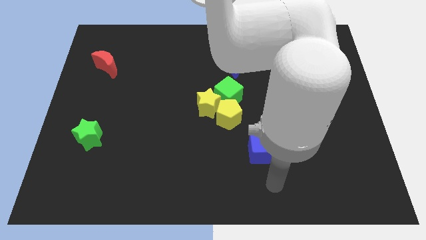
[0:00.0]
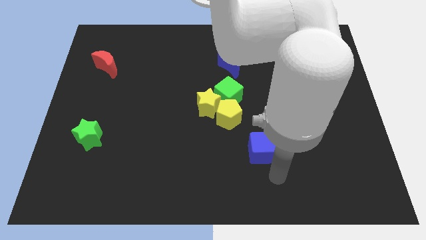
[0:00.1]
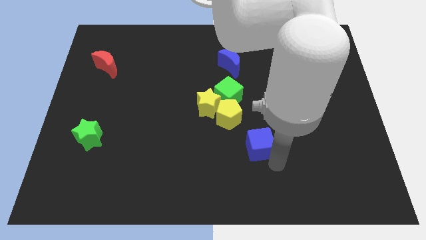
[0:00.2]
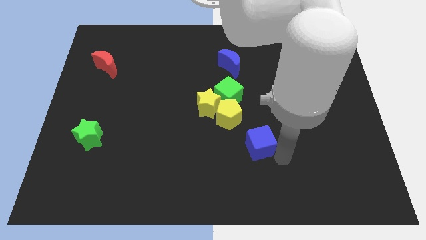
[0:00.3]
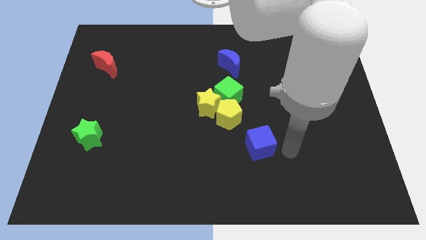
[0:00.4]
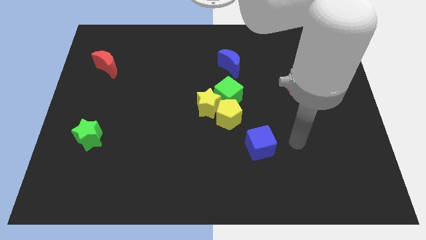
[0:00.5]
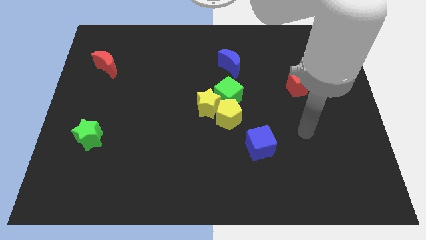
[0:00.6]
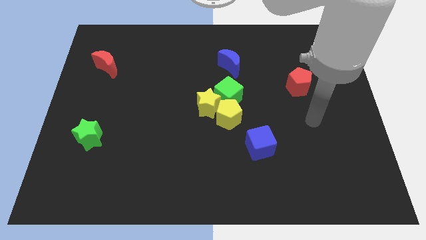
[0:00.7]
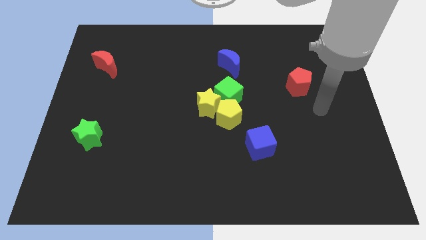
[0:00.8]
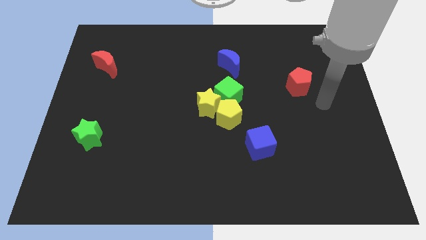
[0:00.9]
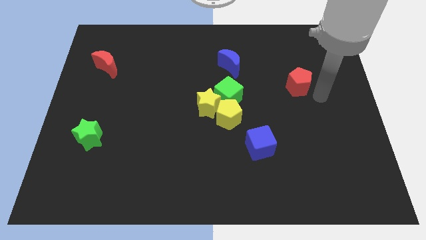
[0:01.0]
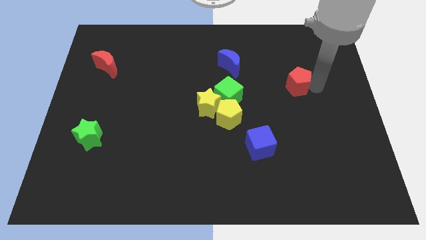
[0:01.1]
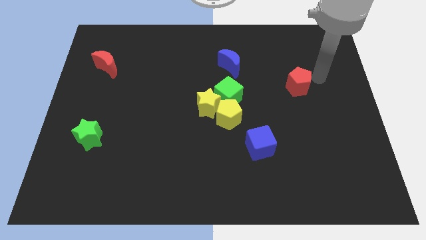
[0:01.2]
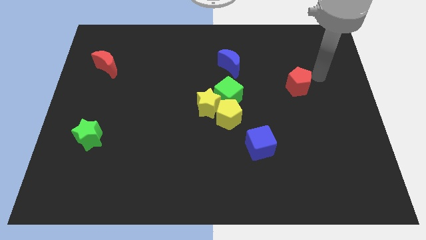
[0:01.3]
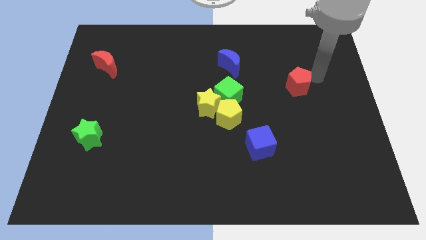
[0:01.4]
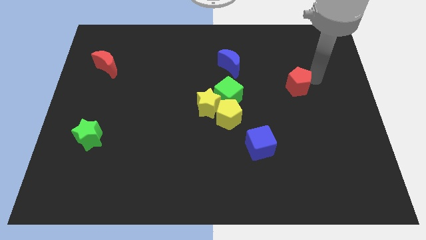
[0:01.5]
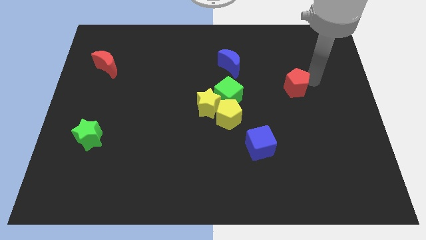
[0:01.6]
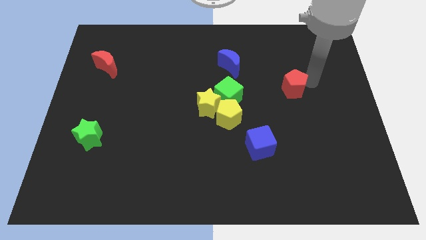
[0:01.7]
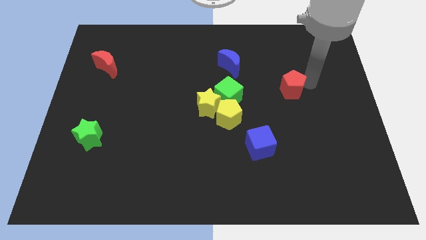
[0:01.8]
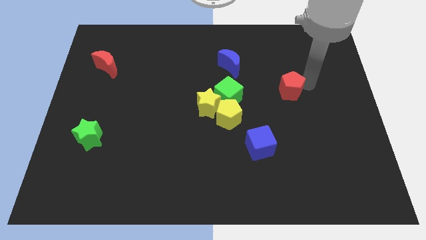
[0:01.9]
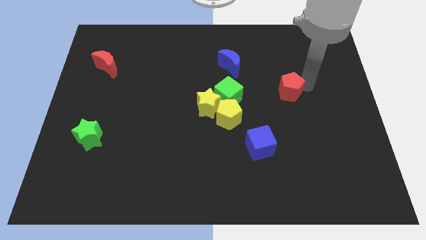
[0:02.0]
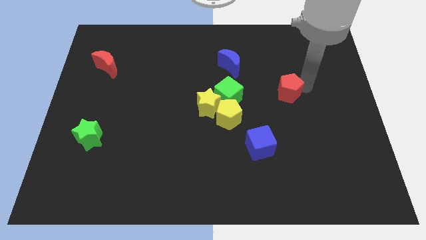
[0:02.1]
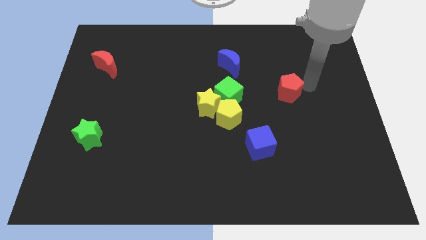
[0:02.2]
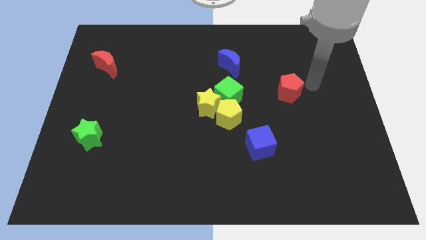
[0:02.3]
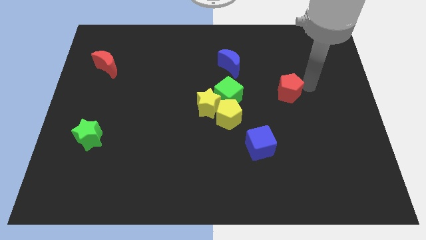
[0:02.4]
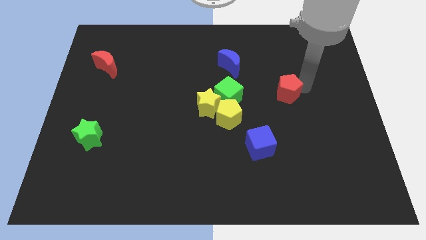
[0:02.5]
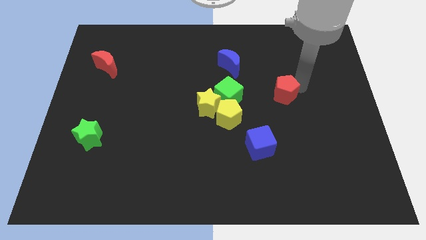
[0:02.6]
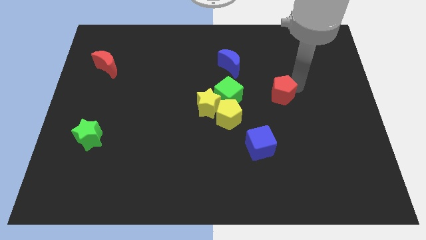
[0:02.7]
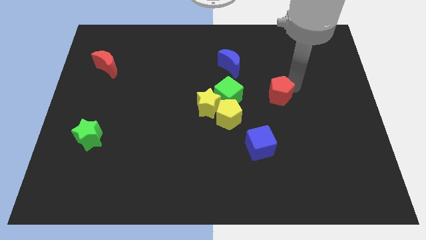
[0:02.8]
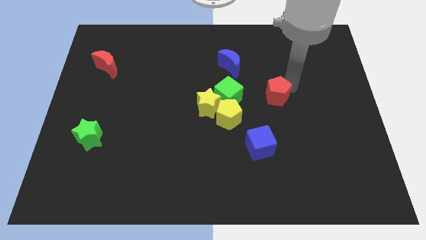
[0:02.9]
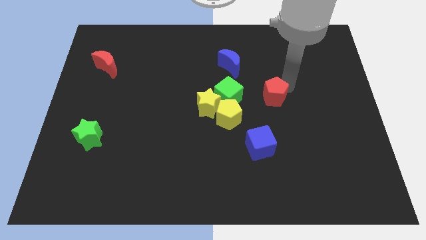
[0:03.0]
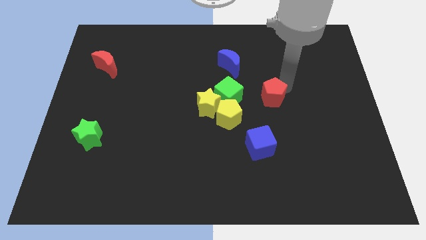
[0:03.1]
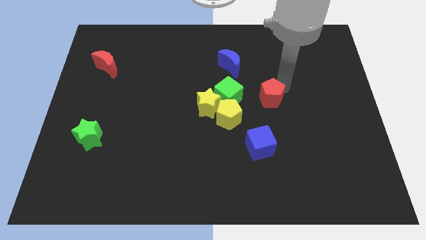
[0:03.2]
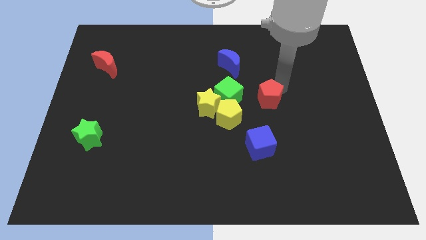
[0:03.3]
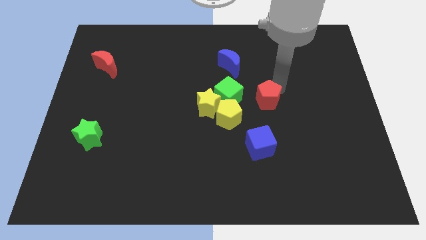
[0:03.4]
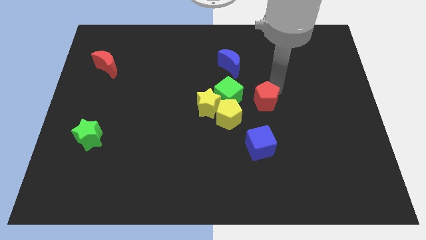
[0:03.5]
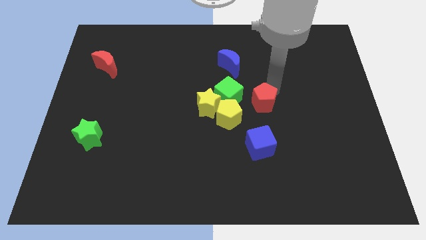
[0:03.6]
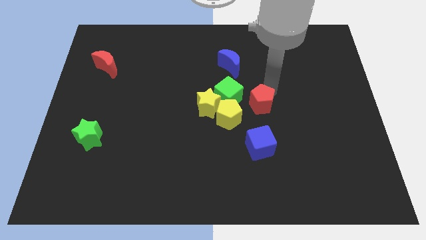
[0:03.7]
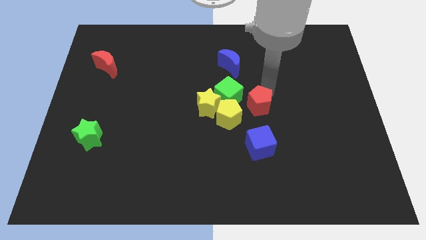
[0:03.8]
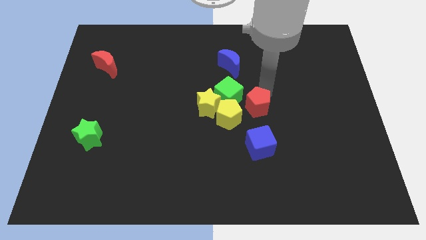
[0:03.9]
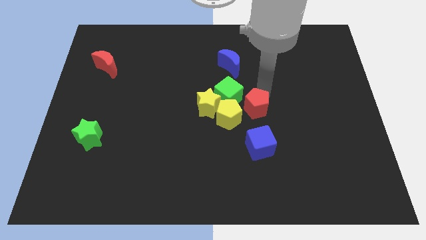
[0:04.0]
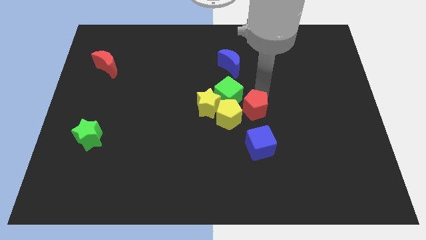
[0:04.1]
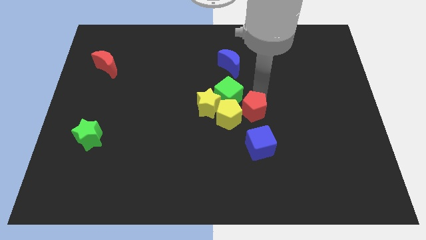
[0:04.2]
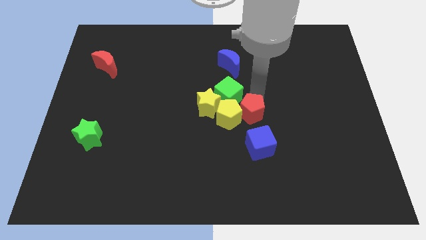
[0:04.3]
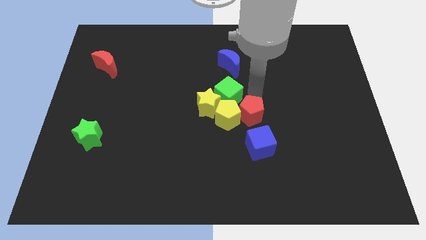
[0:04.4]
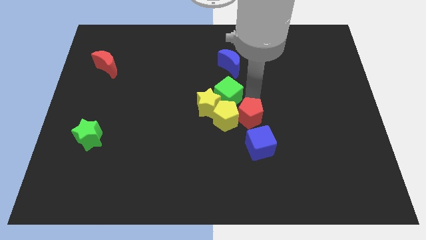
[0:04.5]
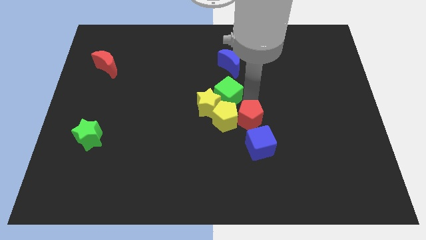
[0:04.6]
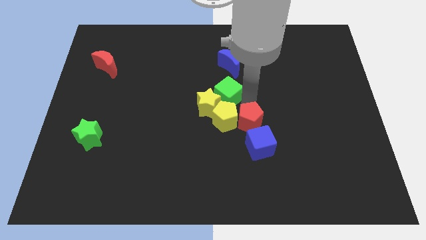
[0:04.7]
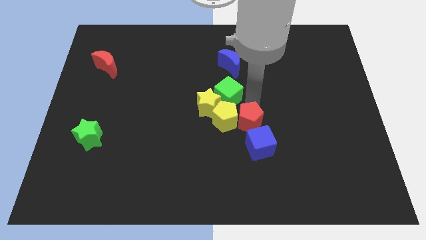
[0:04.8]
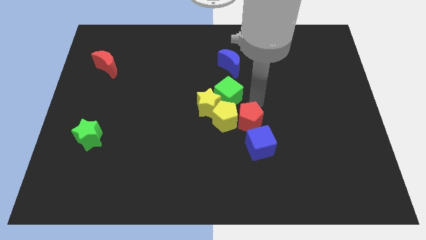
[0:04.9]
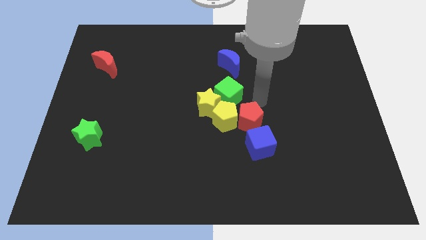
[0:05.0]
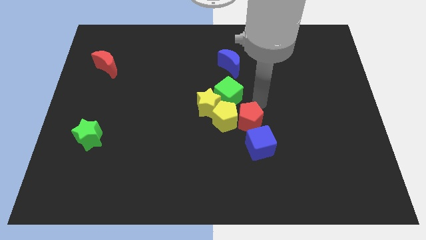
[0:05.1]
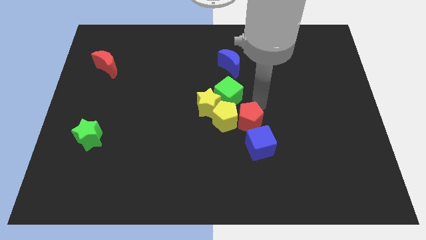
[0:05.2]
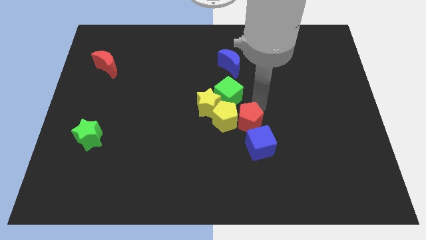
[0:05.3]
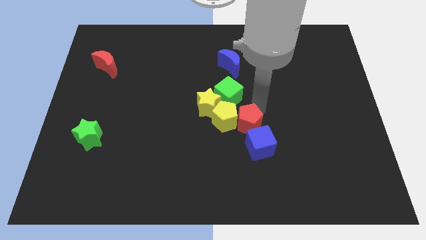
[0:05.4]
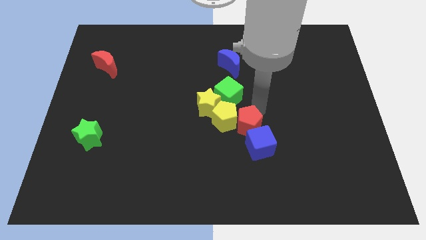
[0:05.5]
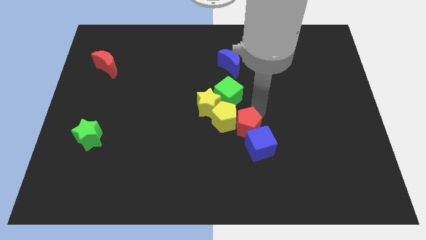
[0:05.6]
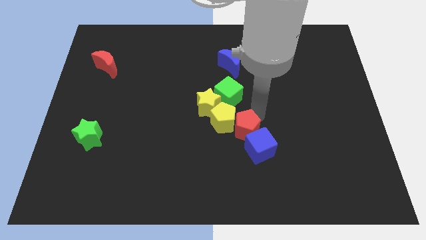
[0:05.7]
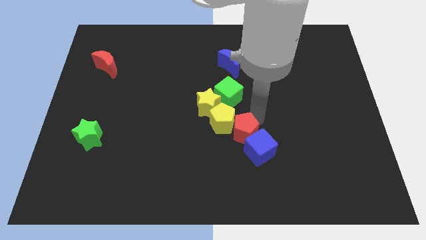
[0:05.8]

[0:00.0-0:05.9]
slide the red pentagon downwards and then left

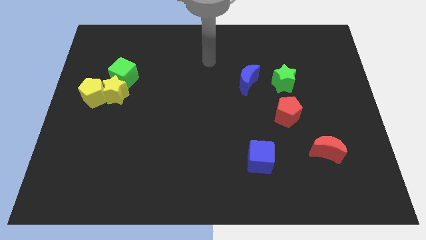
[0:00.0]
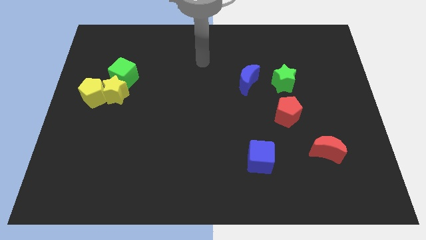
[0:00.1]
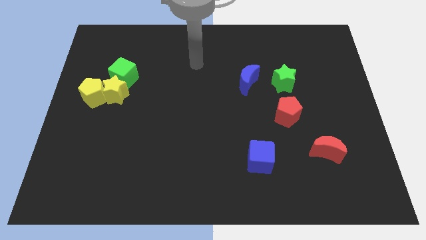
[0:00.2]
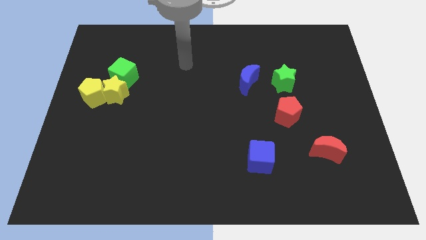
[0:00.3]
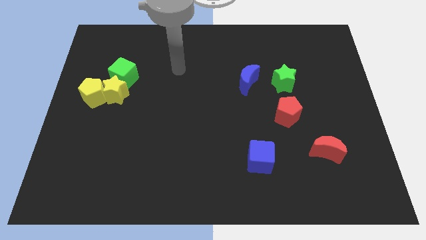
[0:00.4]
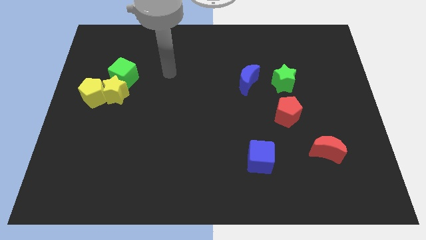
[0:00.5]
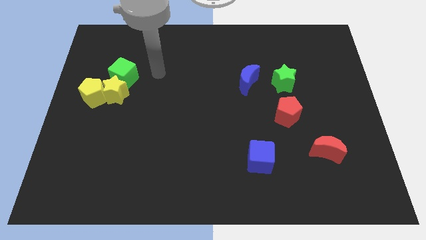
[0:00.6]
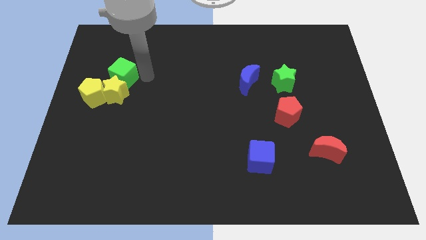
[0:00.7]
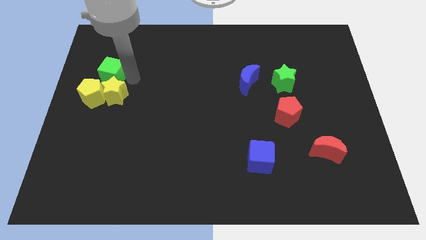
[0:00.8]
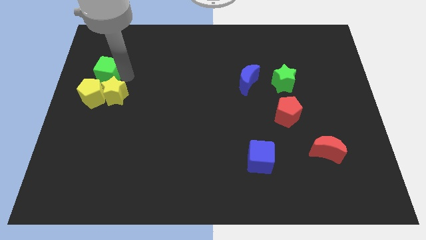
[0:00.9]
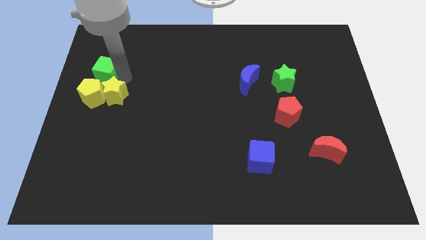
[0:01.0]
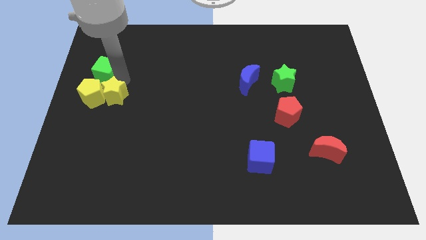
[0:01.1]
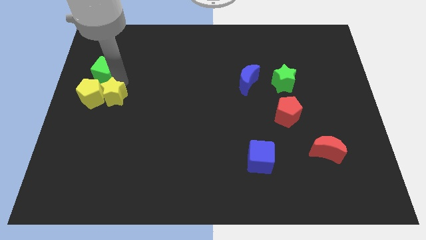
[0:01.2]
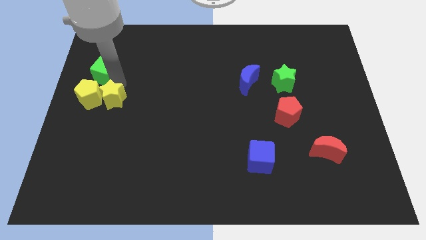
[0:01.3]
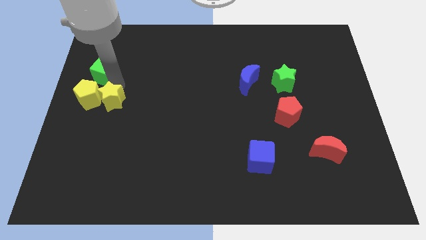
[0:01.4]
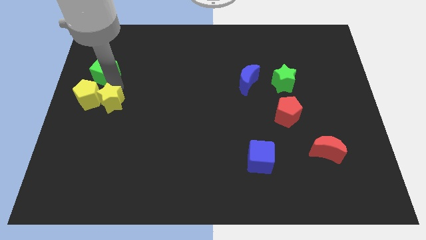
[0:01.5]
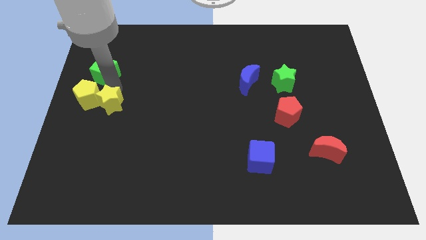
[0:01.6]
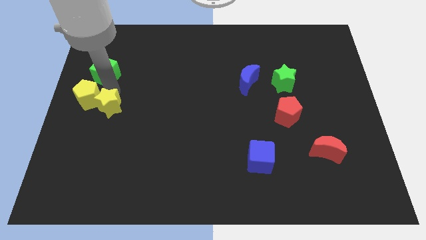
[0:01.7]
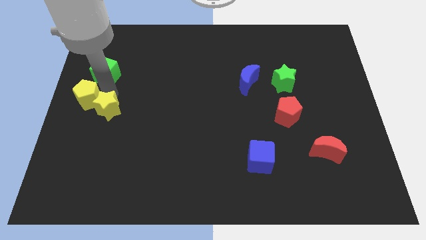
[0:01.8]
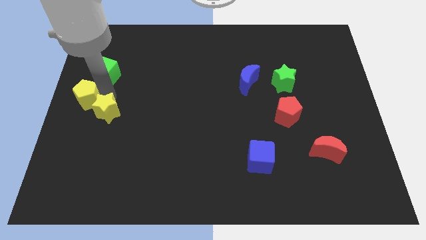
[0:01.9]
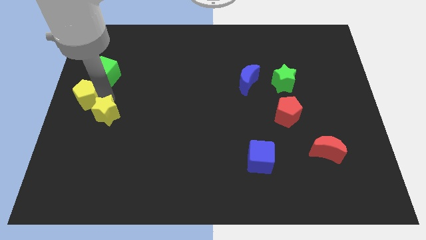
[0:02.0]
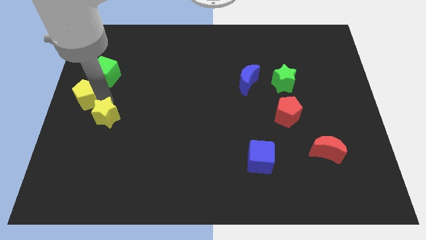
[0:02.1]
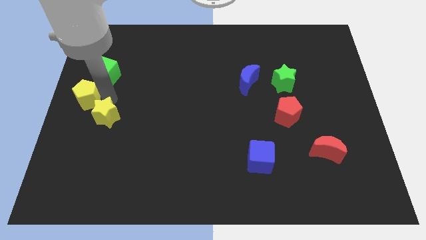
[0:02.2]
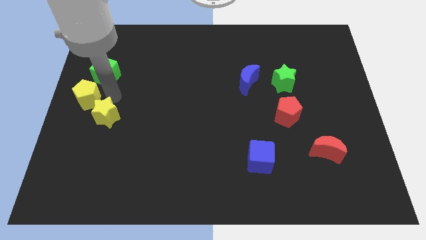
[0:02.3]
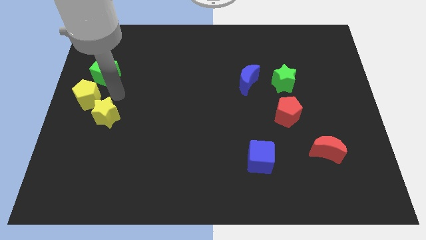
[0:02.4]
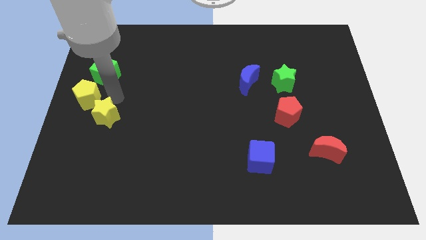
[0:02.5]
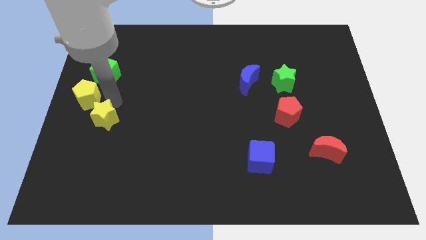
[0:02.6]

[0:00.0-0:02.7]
slightly slide the yellow star down
